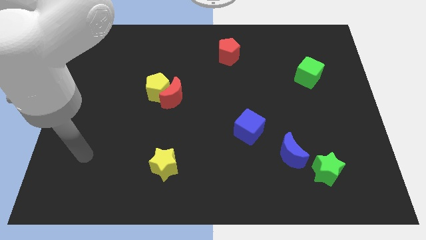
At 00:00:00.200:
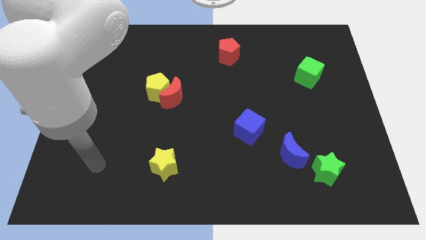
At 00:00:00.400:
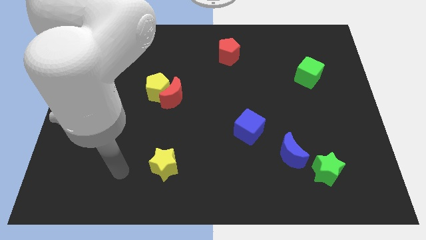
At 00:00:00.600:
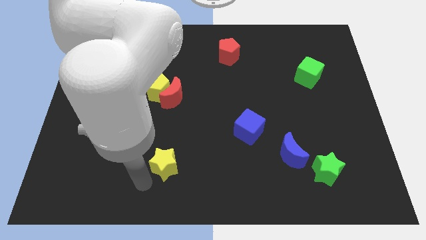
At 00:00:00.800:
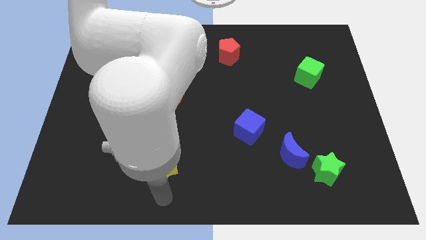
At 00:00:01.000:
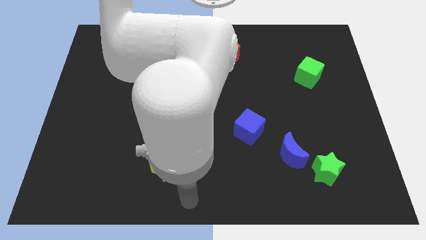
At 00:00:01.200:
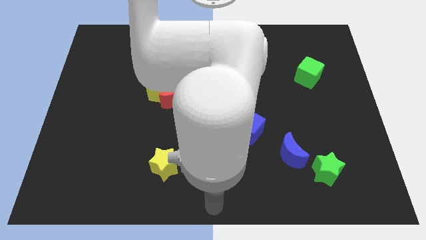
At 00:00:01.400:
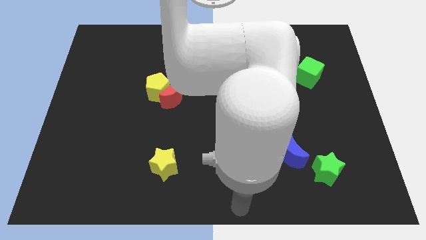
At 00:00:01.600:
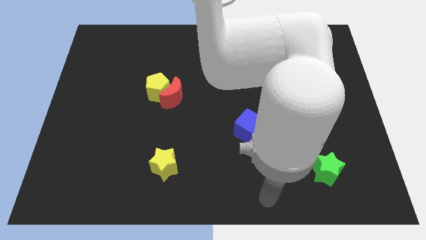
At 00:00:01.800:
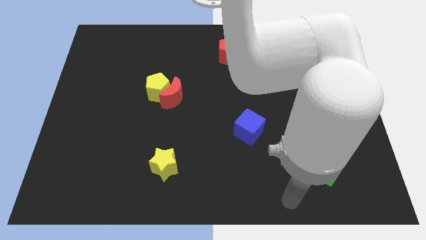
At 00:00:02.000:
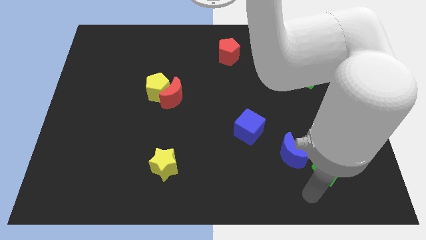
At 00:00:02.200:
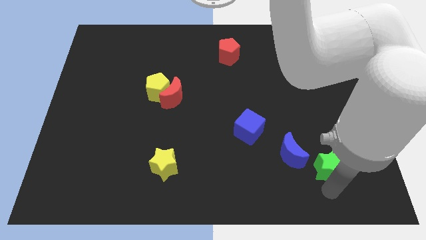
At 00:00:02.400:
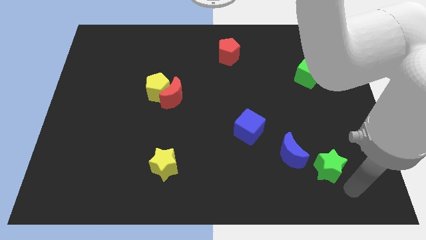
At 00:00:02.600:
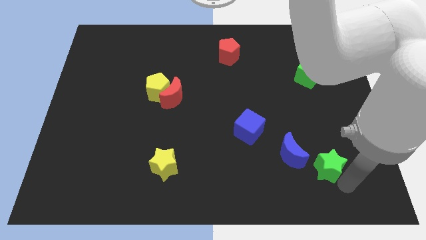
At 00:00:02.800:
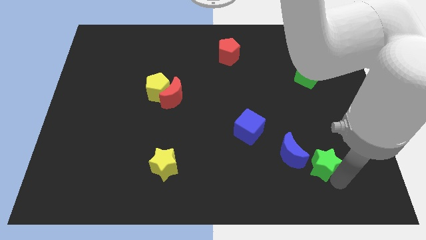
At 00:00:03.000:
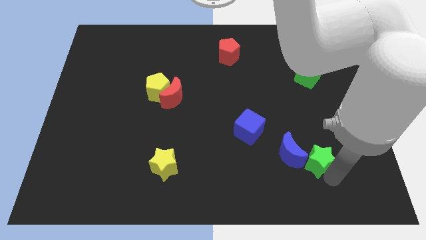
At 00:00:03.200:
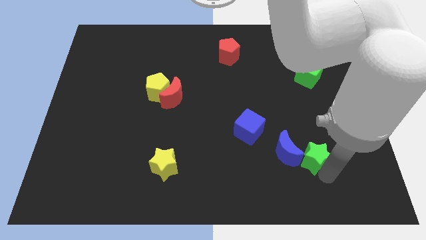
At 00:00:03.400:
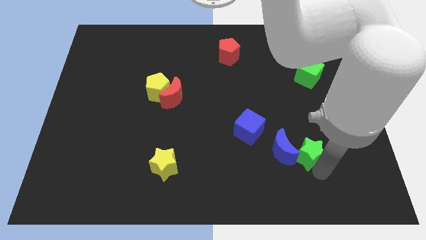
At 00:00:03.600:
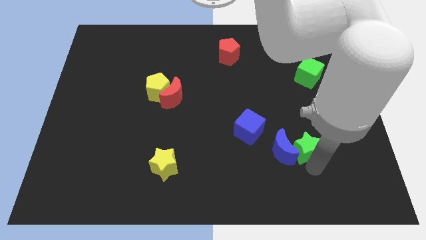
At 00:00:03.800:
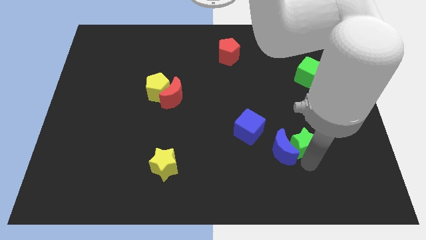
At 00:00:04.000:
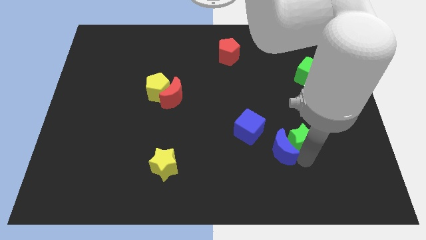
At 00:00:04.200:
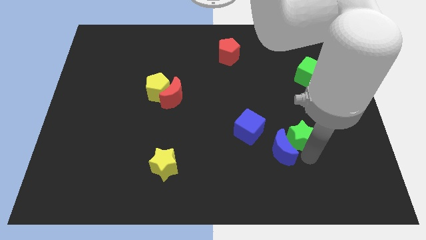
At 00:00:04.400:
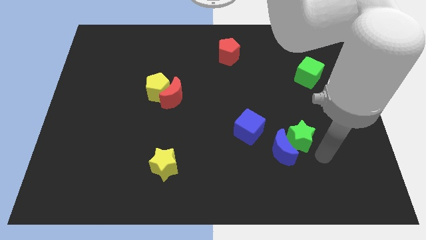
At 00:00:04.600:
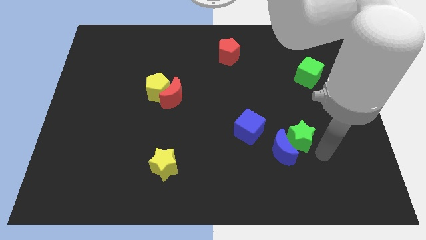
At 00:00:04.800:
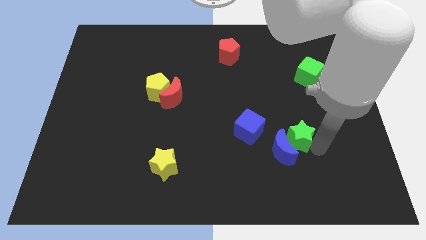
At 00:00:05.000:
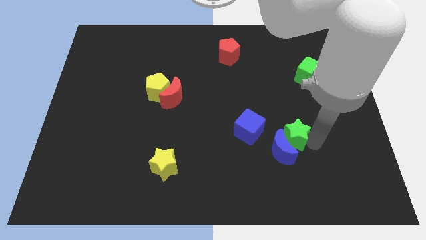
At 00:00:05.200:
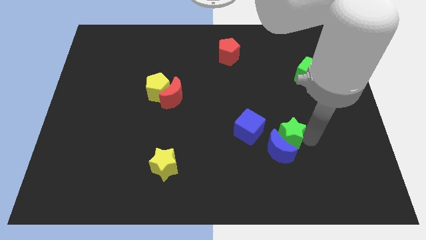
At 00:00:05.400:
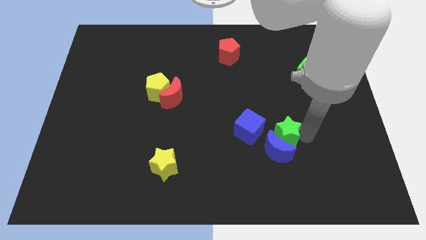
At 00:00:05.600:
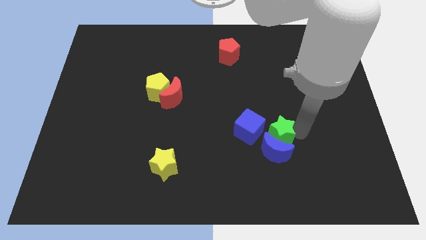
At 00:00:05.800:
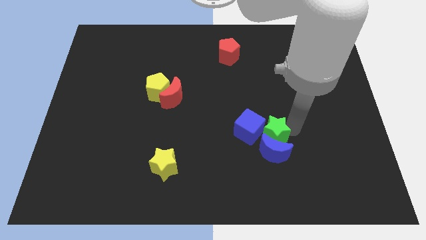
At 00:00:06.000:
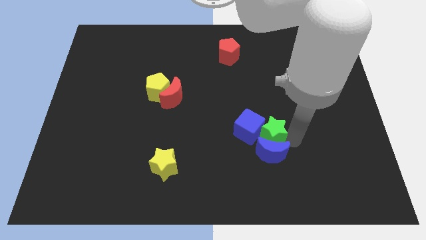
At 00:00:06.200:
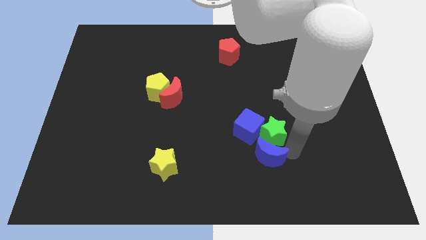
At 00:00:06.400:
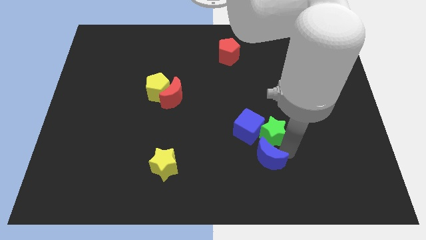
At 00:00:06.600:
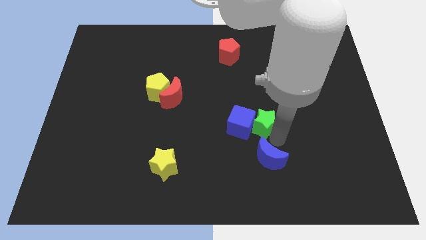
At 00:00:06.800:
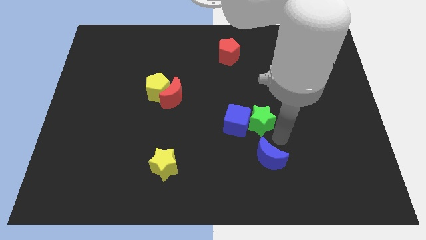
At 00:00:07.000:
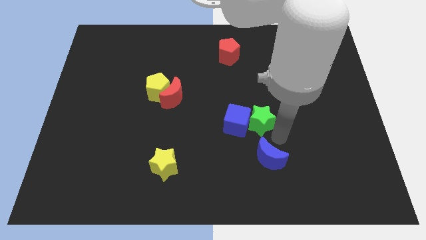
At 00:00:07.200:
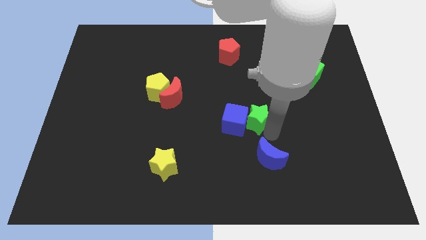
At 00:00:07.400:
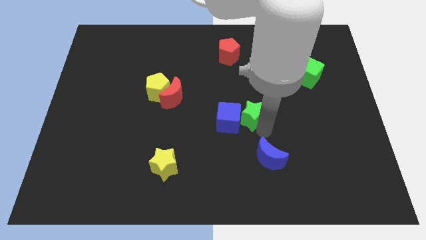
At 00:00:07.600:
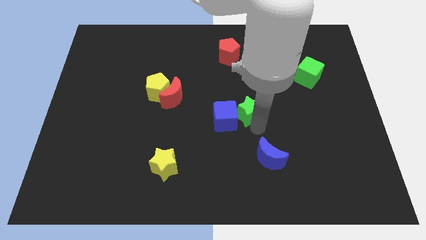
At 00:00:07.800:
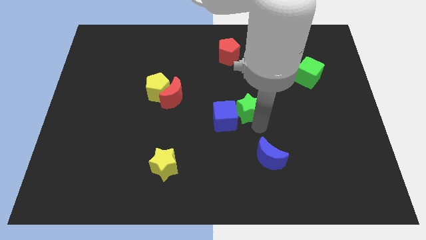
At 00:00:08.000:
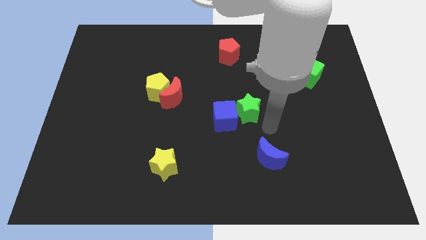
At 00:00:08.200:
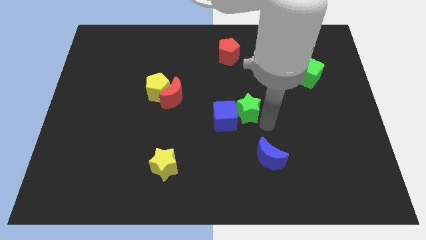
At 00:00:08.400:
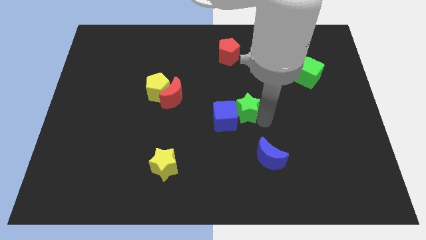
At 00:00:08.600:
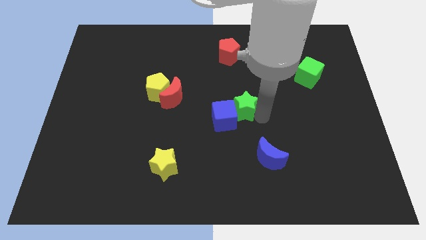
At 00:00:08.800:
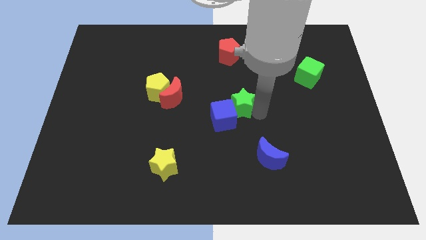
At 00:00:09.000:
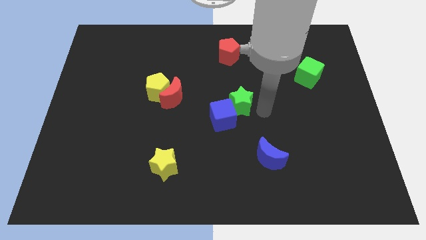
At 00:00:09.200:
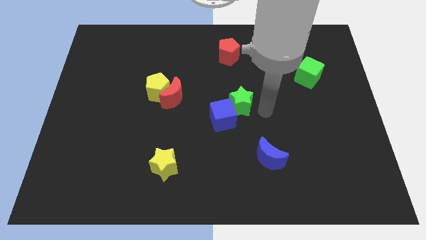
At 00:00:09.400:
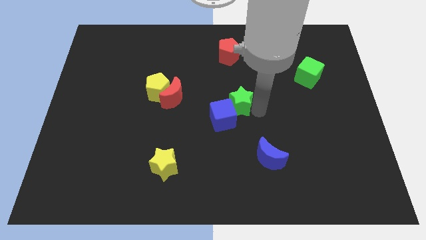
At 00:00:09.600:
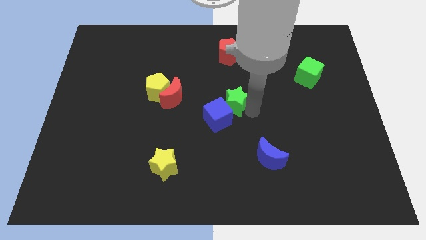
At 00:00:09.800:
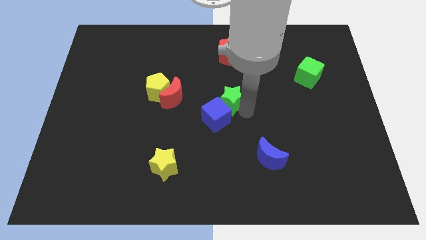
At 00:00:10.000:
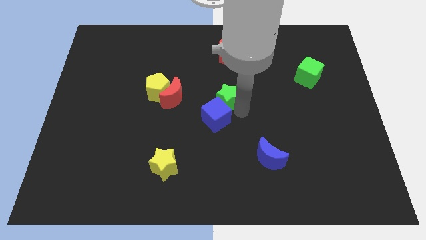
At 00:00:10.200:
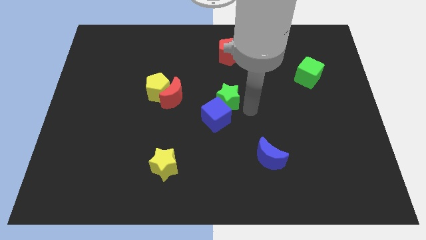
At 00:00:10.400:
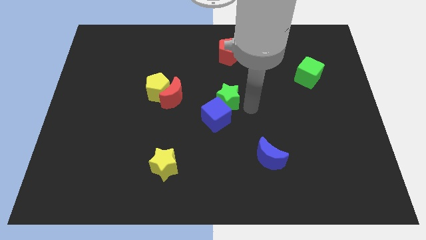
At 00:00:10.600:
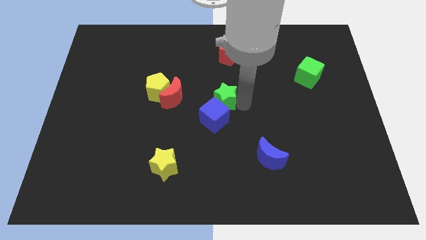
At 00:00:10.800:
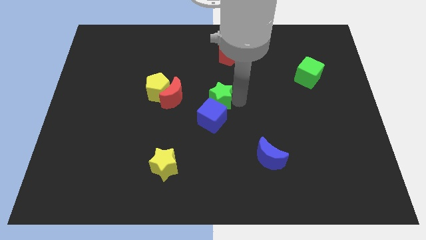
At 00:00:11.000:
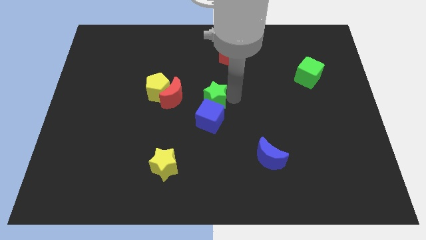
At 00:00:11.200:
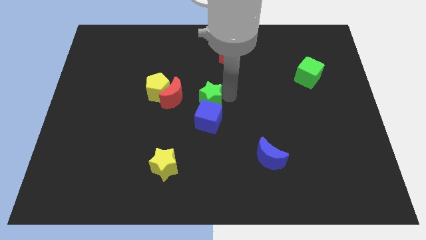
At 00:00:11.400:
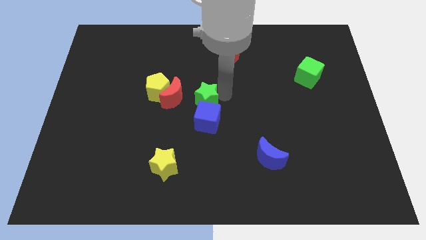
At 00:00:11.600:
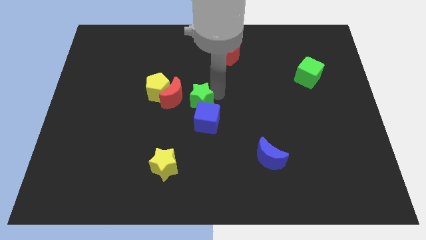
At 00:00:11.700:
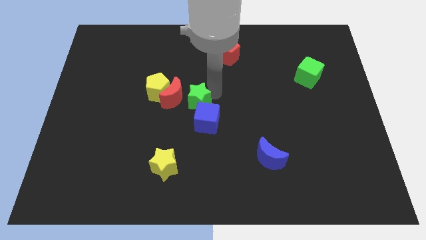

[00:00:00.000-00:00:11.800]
move the green star towards the red moon

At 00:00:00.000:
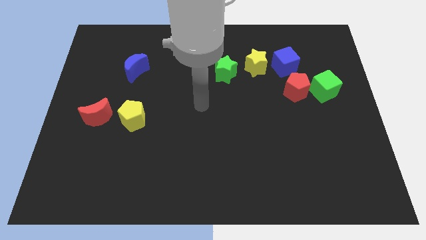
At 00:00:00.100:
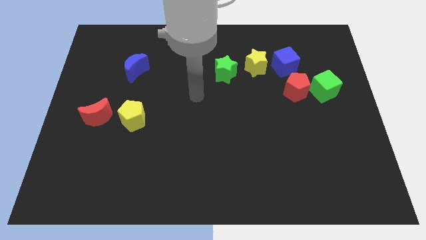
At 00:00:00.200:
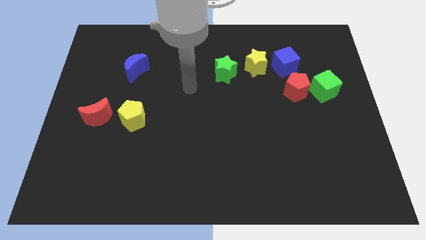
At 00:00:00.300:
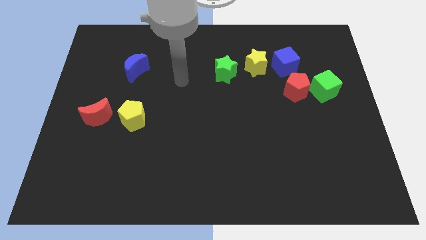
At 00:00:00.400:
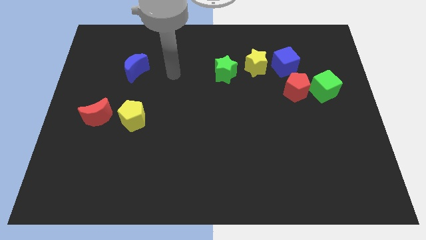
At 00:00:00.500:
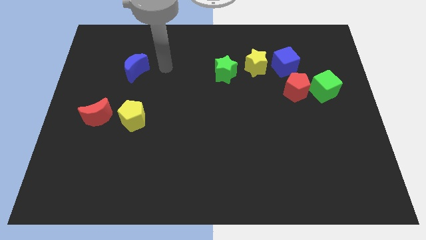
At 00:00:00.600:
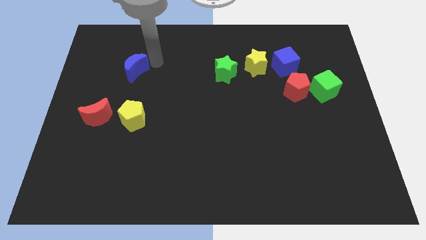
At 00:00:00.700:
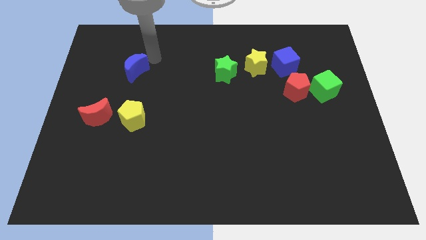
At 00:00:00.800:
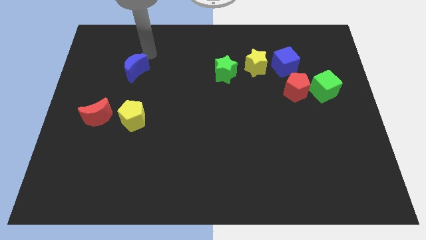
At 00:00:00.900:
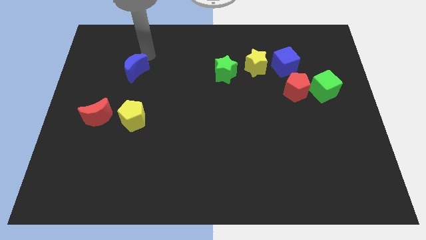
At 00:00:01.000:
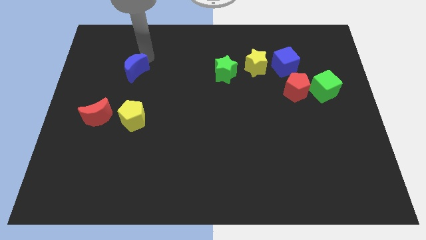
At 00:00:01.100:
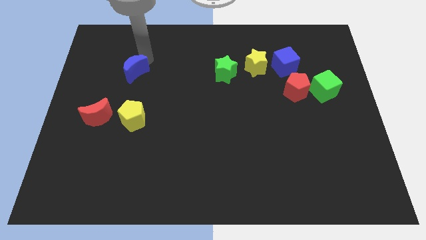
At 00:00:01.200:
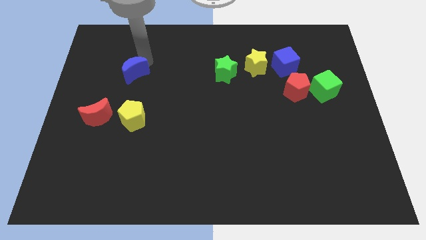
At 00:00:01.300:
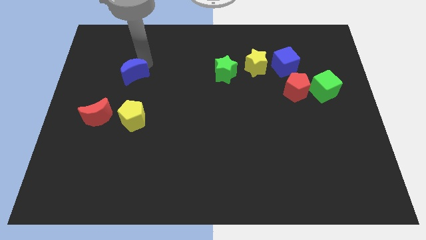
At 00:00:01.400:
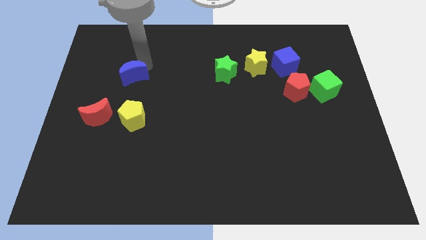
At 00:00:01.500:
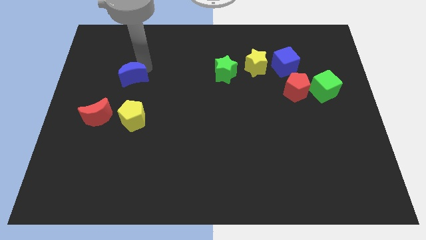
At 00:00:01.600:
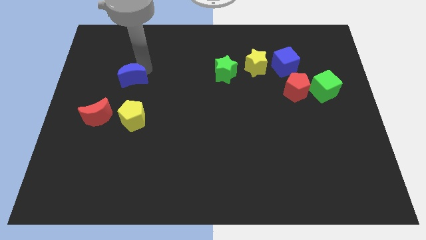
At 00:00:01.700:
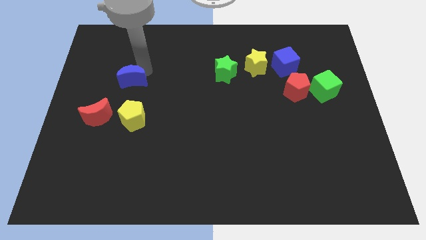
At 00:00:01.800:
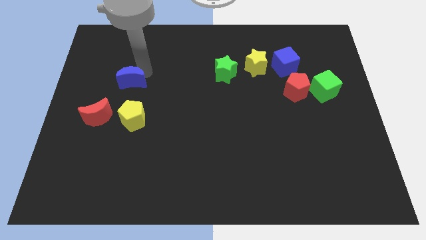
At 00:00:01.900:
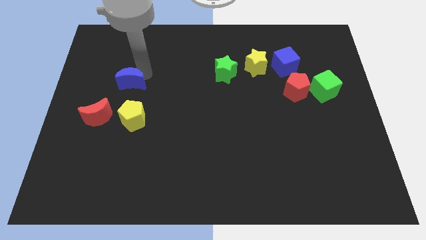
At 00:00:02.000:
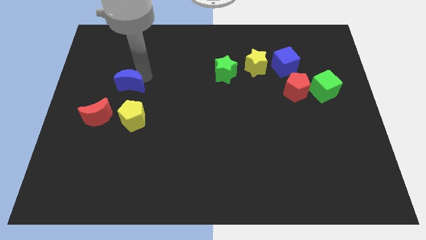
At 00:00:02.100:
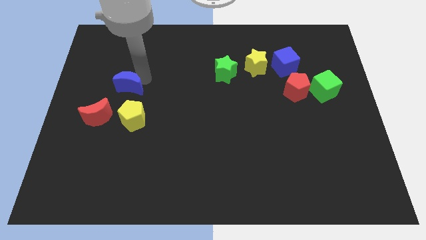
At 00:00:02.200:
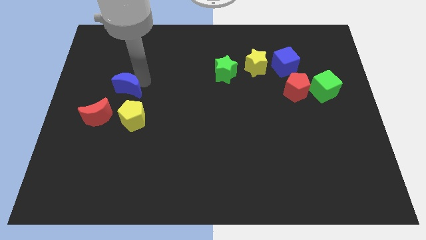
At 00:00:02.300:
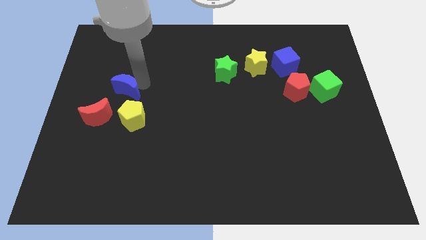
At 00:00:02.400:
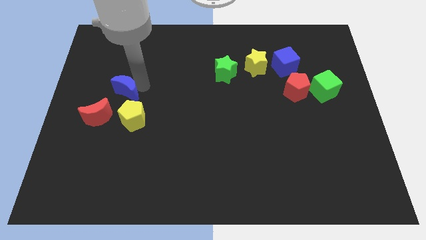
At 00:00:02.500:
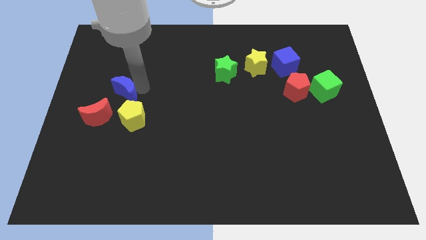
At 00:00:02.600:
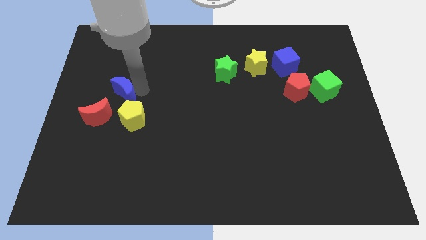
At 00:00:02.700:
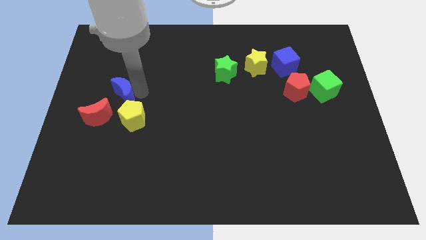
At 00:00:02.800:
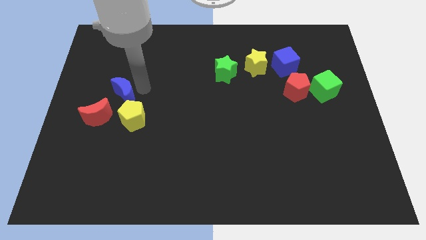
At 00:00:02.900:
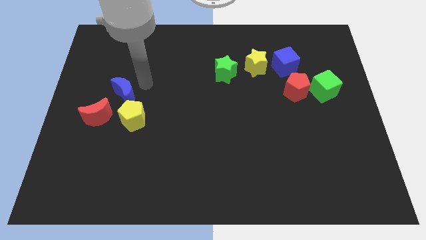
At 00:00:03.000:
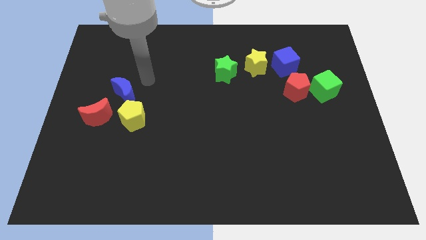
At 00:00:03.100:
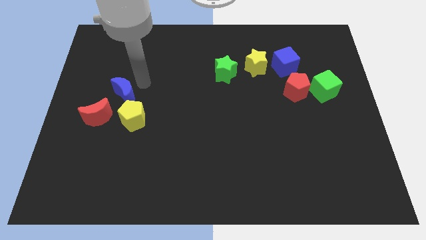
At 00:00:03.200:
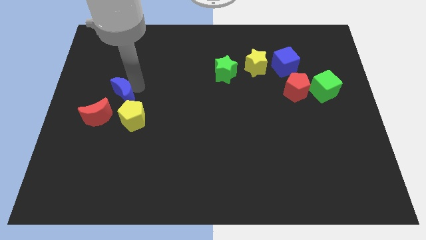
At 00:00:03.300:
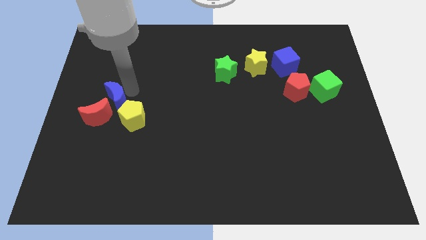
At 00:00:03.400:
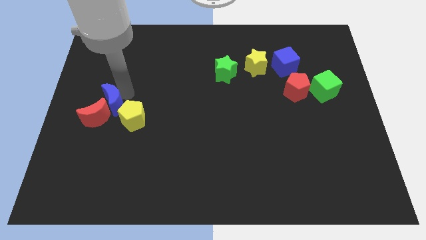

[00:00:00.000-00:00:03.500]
push the blue moon close to the red moon
